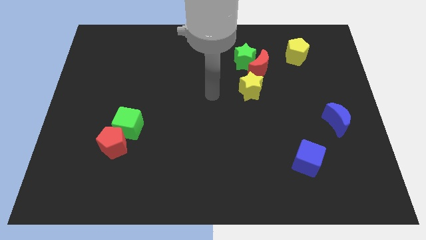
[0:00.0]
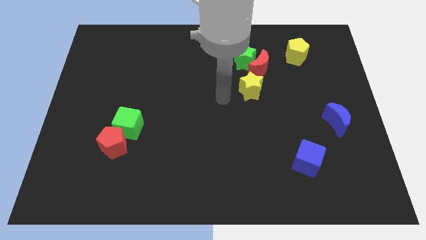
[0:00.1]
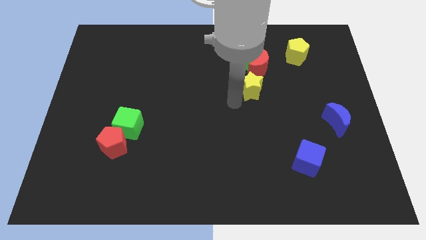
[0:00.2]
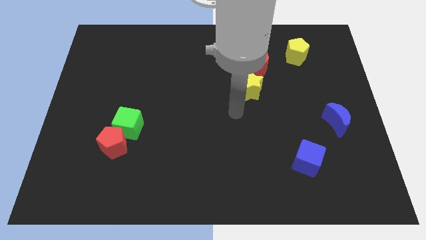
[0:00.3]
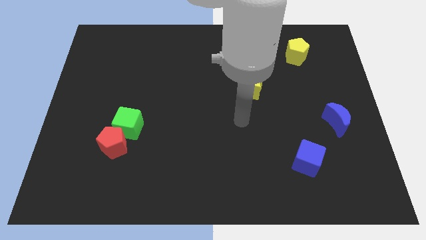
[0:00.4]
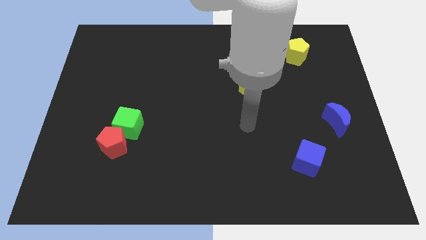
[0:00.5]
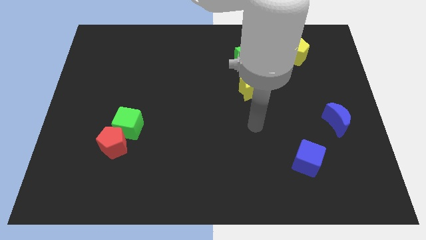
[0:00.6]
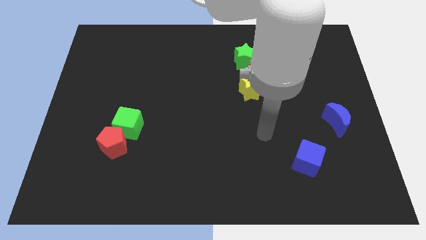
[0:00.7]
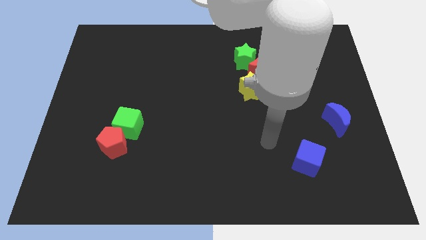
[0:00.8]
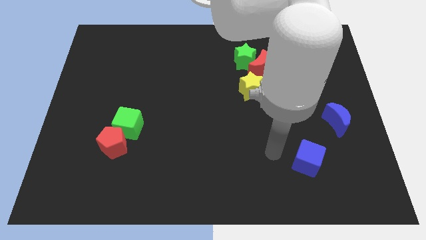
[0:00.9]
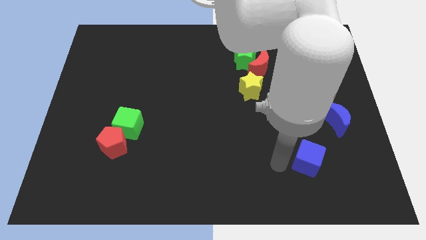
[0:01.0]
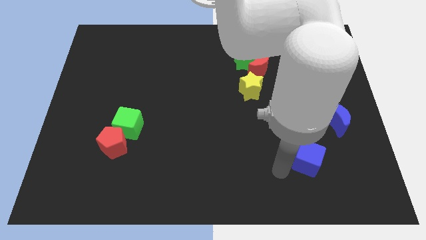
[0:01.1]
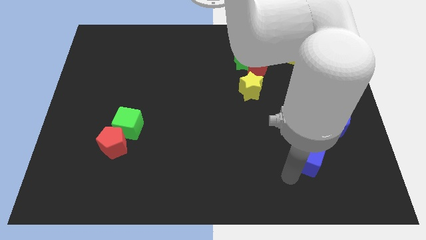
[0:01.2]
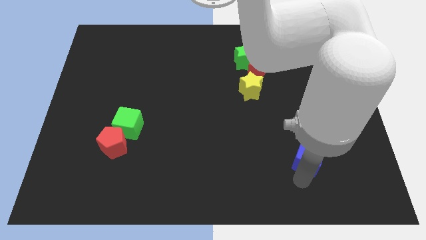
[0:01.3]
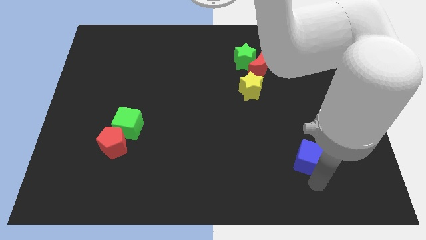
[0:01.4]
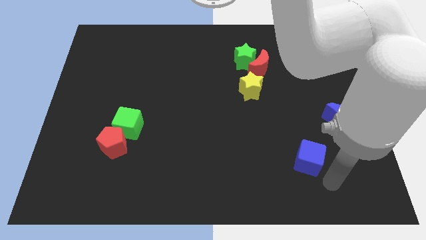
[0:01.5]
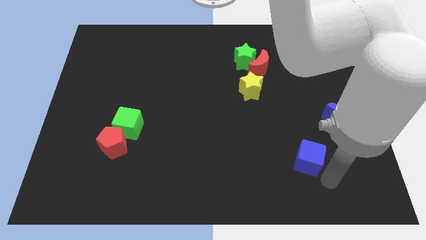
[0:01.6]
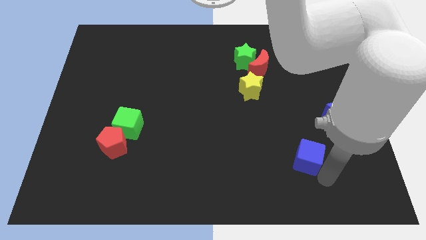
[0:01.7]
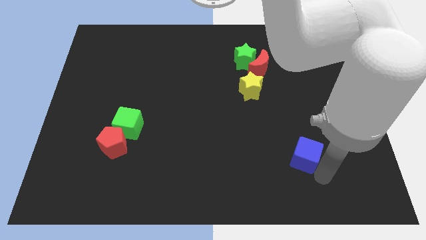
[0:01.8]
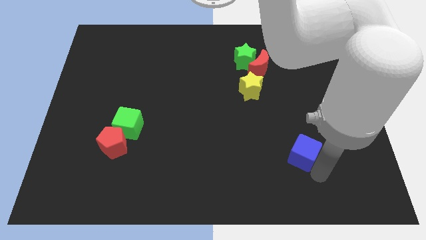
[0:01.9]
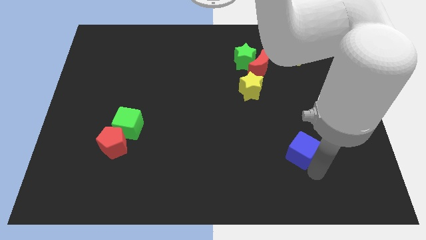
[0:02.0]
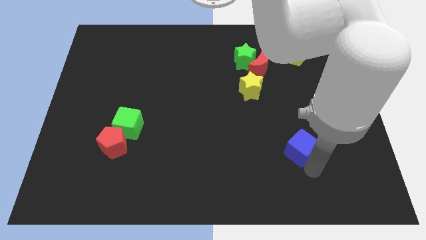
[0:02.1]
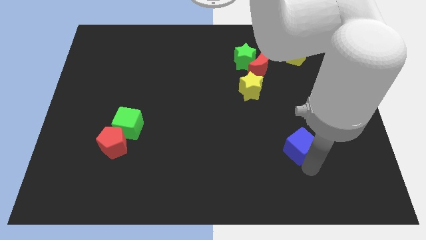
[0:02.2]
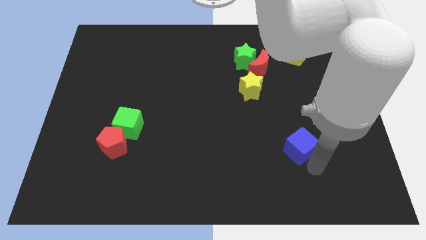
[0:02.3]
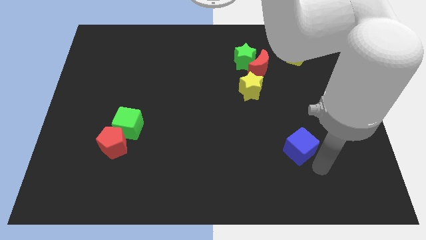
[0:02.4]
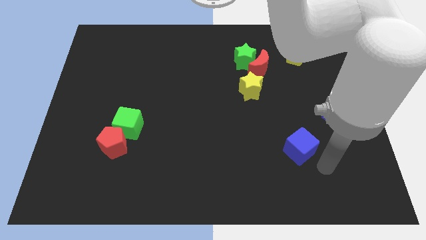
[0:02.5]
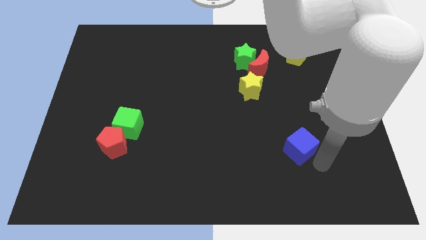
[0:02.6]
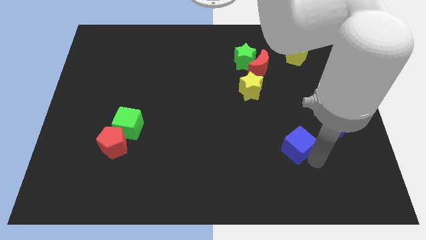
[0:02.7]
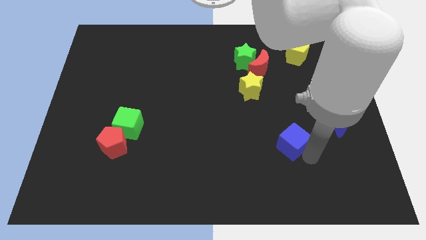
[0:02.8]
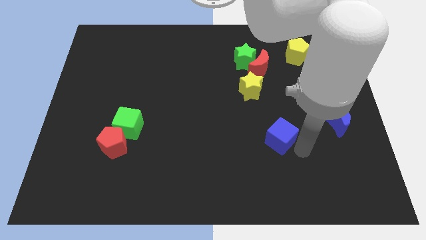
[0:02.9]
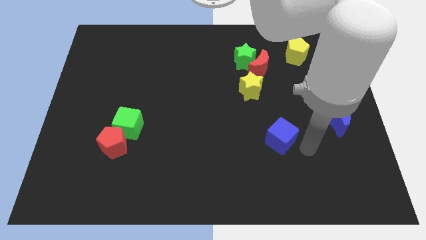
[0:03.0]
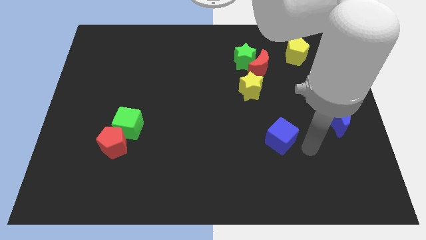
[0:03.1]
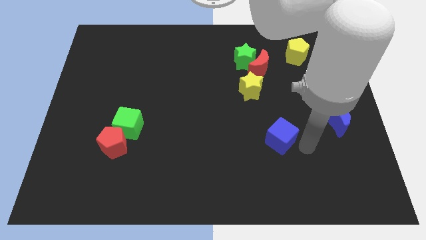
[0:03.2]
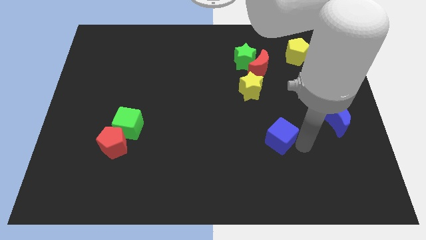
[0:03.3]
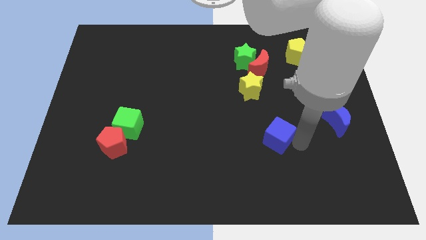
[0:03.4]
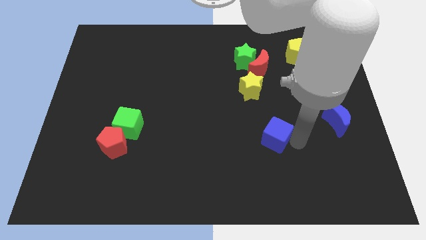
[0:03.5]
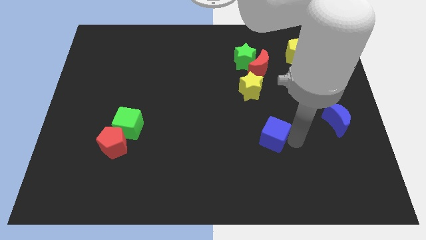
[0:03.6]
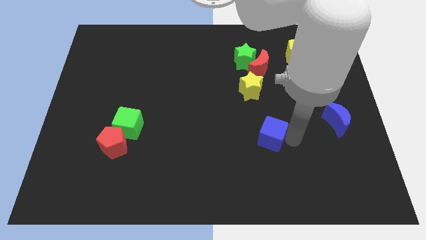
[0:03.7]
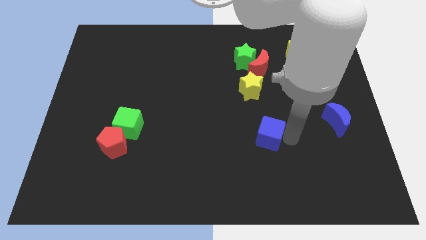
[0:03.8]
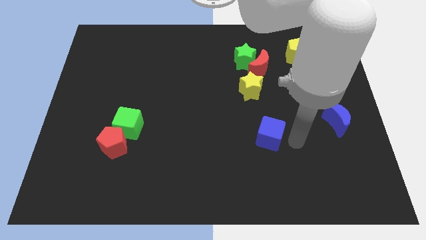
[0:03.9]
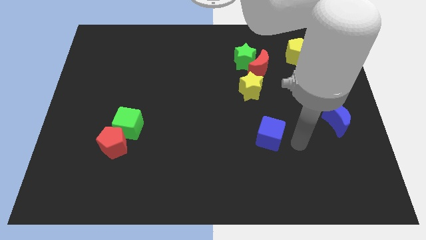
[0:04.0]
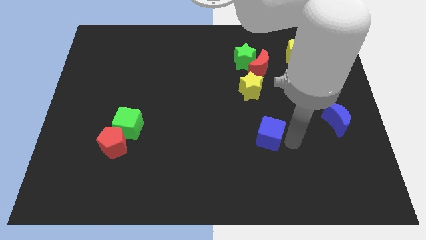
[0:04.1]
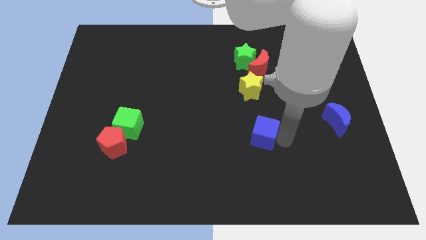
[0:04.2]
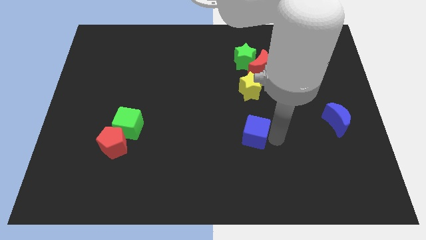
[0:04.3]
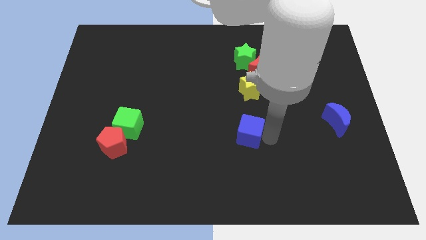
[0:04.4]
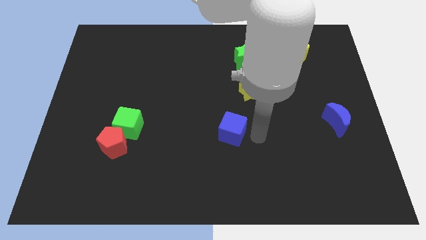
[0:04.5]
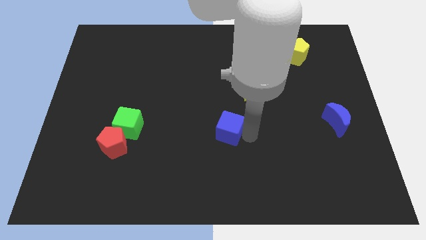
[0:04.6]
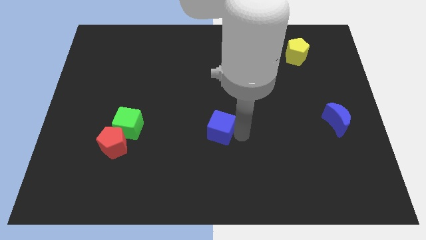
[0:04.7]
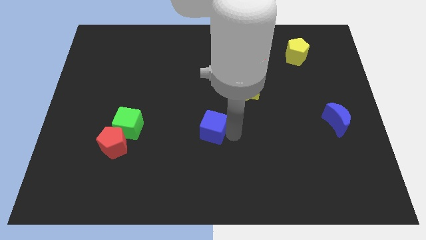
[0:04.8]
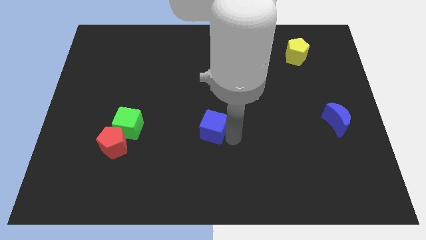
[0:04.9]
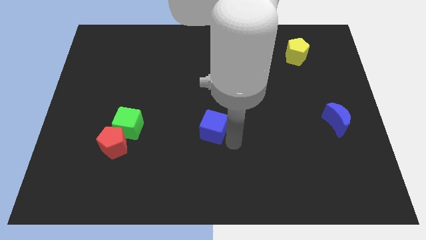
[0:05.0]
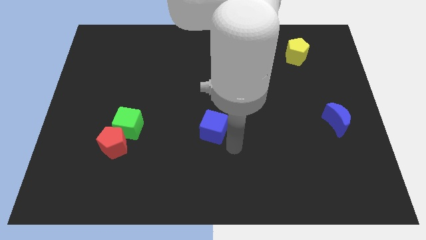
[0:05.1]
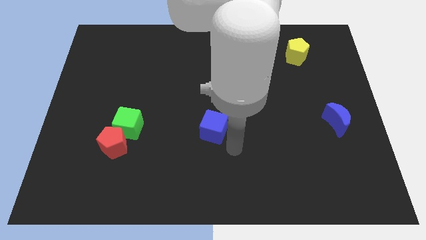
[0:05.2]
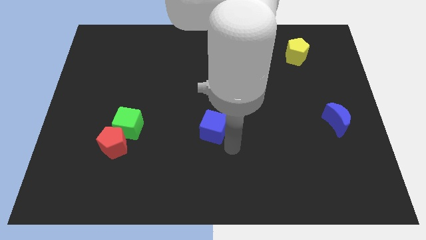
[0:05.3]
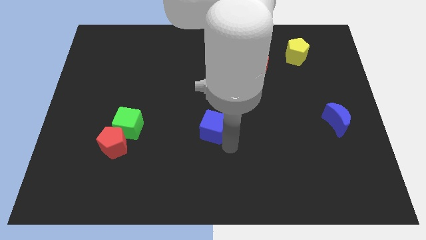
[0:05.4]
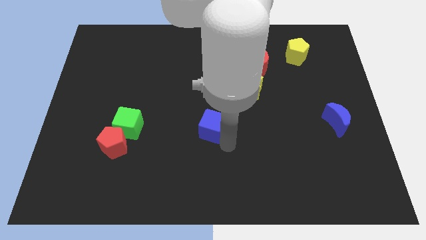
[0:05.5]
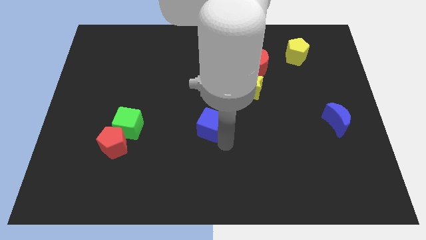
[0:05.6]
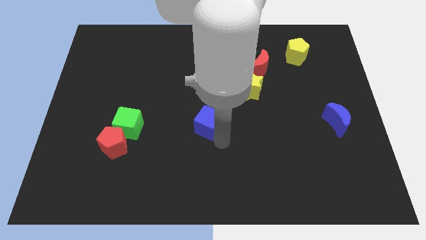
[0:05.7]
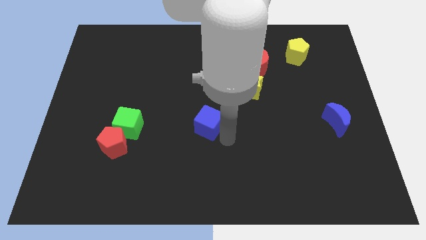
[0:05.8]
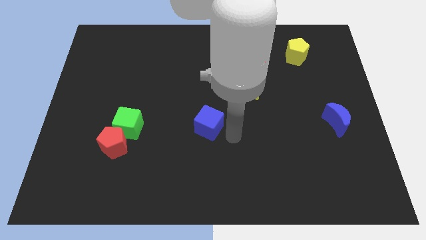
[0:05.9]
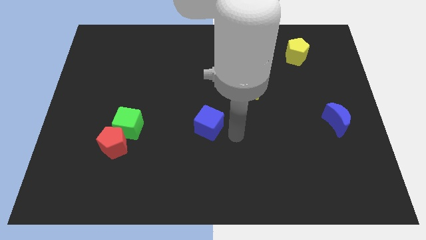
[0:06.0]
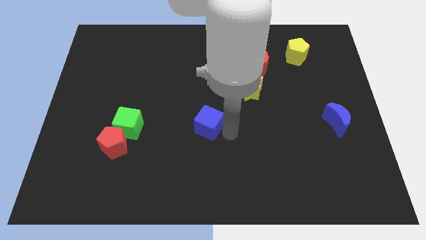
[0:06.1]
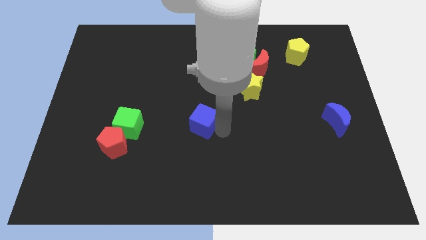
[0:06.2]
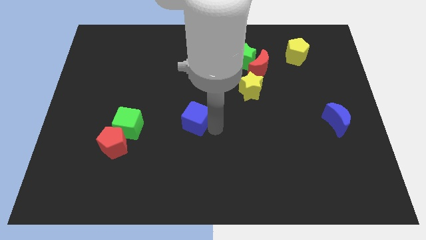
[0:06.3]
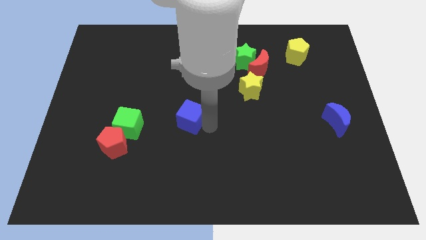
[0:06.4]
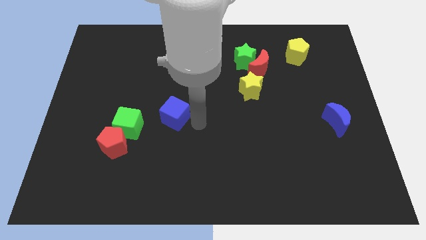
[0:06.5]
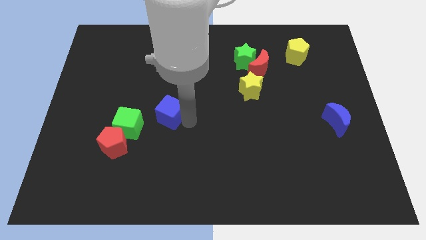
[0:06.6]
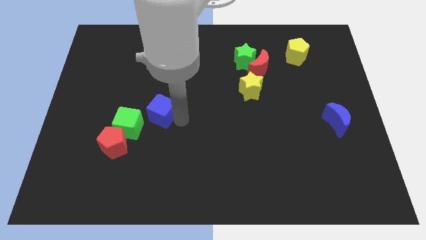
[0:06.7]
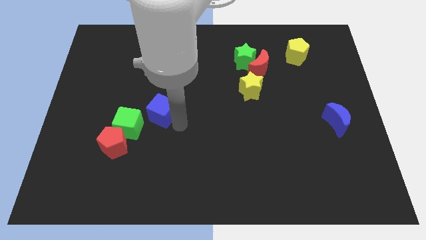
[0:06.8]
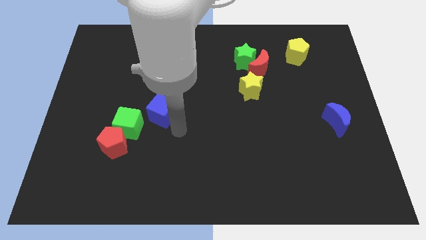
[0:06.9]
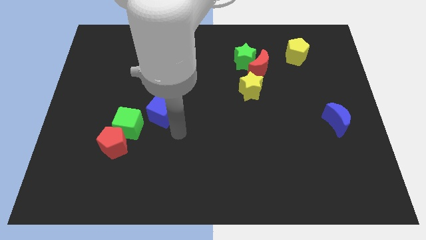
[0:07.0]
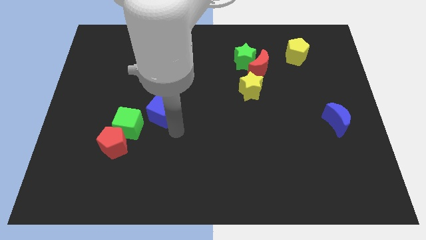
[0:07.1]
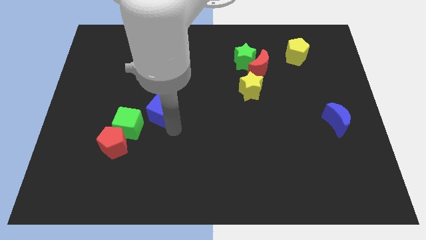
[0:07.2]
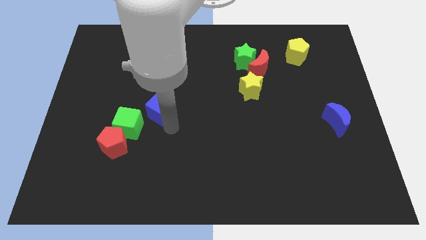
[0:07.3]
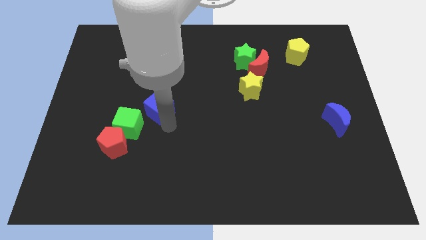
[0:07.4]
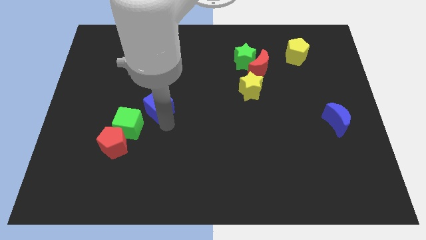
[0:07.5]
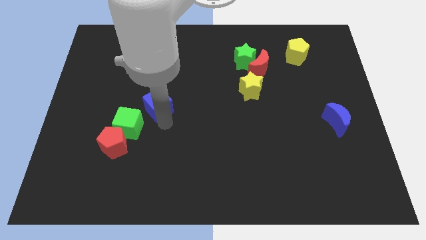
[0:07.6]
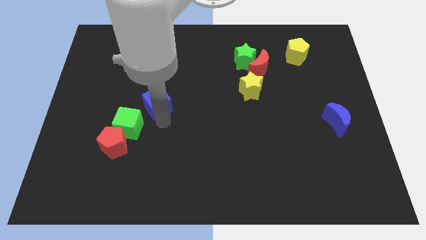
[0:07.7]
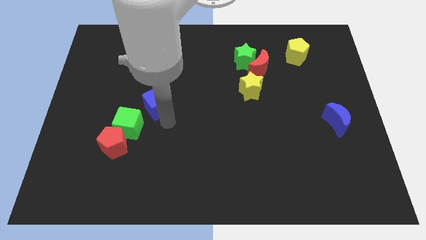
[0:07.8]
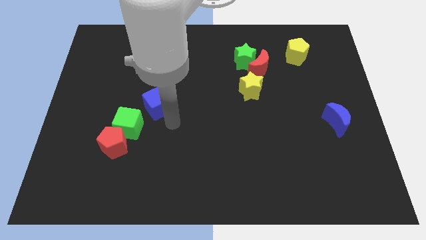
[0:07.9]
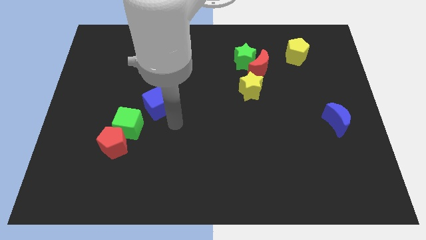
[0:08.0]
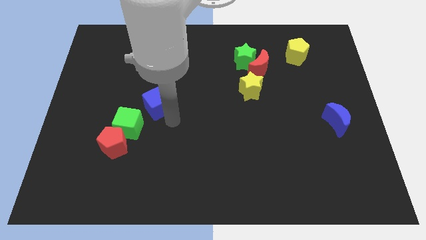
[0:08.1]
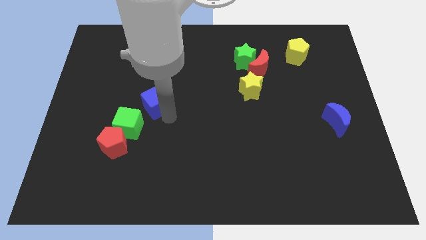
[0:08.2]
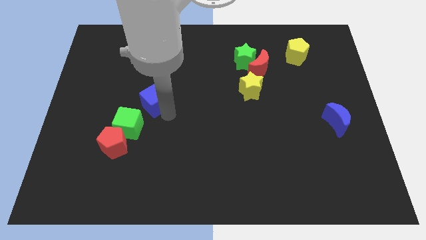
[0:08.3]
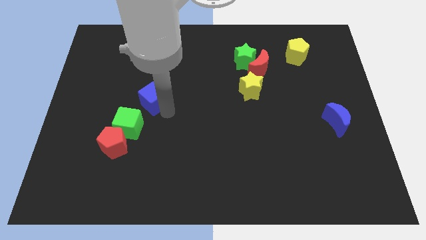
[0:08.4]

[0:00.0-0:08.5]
move the blue cube to the top side of the green cube
